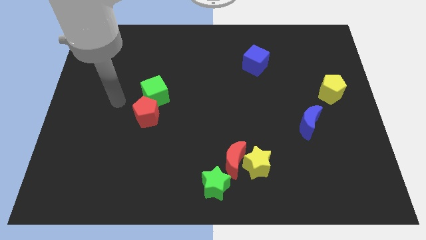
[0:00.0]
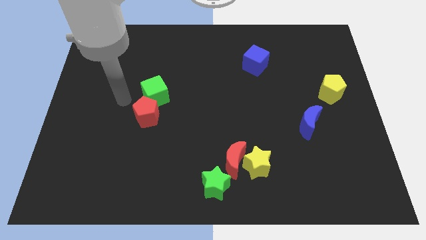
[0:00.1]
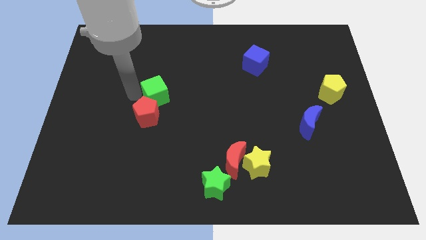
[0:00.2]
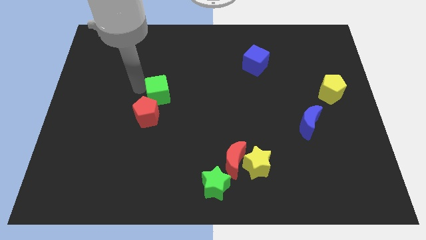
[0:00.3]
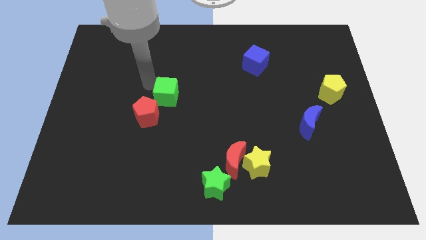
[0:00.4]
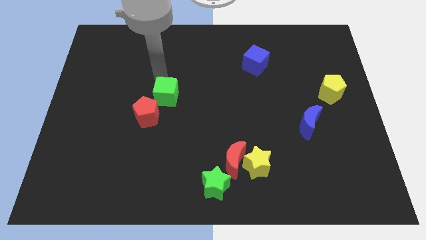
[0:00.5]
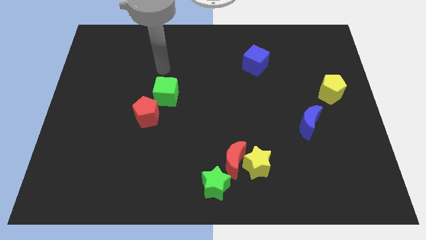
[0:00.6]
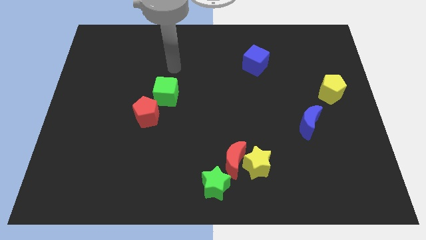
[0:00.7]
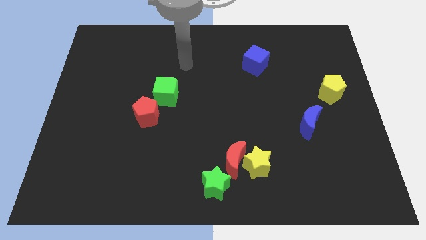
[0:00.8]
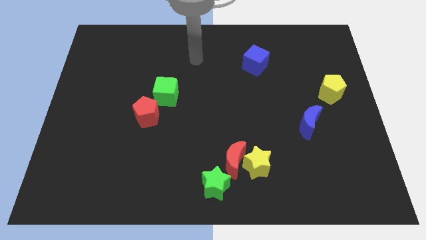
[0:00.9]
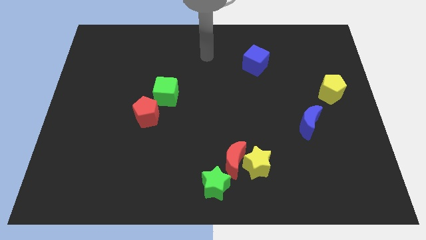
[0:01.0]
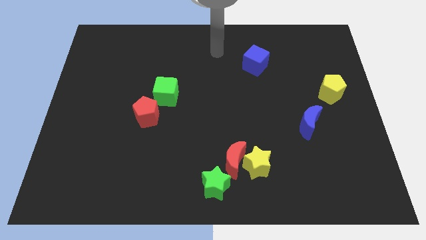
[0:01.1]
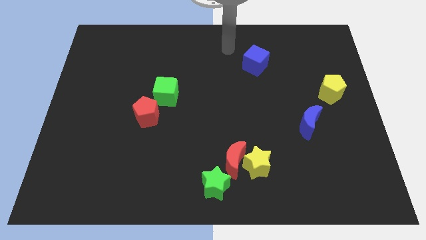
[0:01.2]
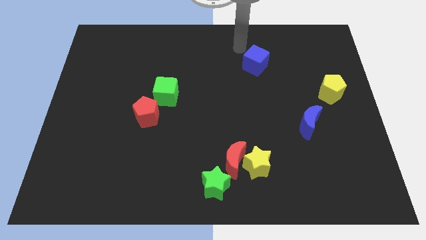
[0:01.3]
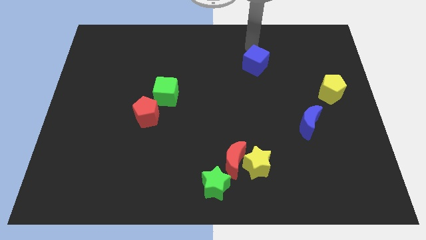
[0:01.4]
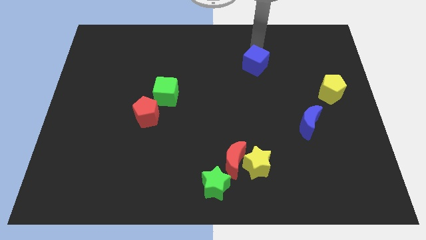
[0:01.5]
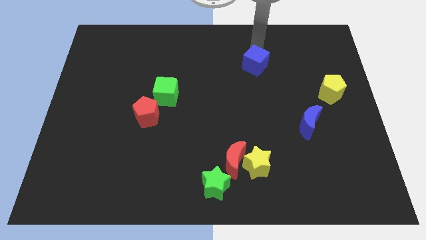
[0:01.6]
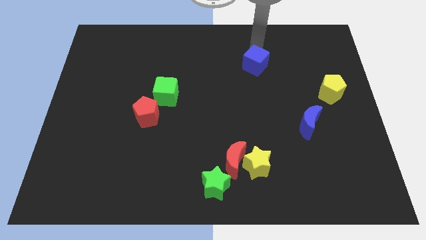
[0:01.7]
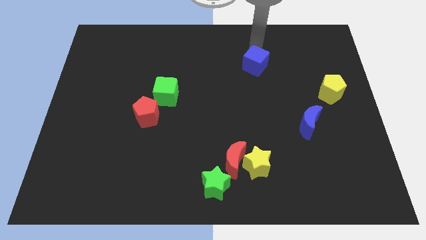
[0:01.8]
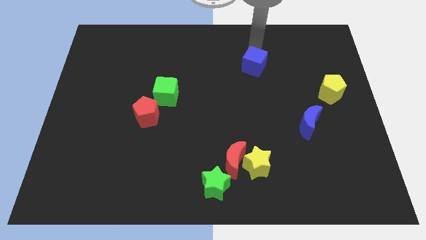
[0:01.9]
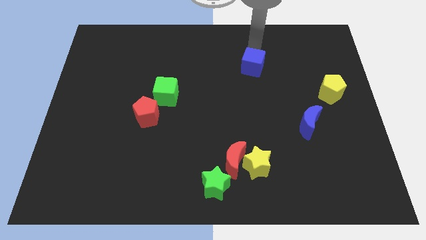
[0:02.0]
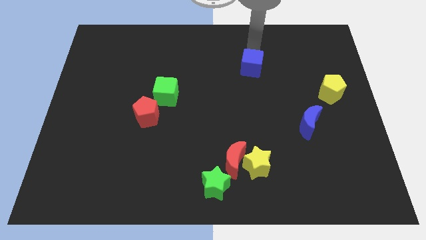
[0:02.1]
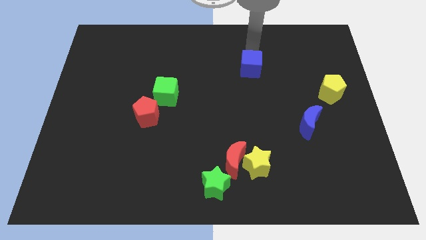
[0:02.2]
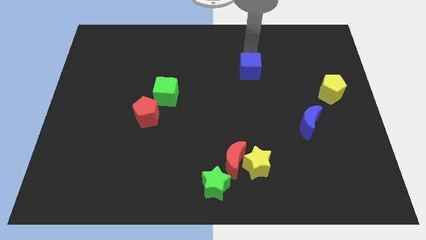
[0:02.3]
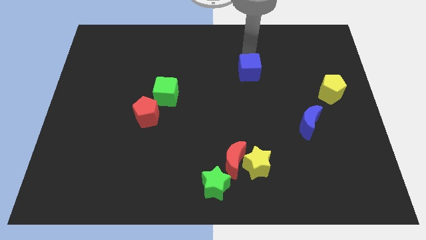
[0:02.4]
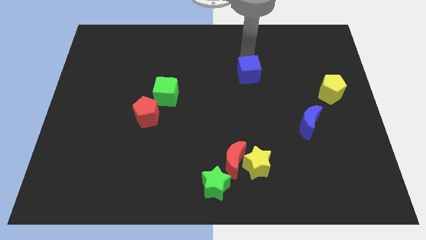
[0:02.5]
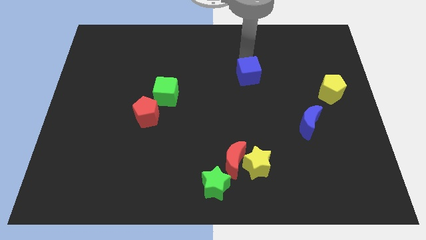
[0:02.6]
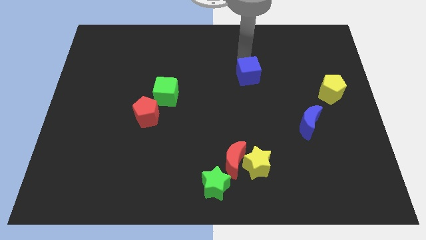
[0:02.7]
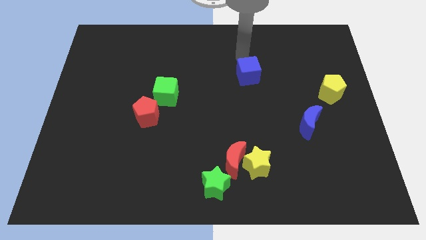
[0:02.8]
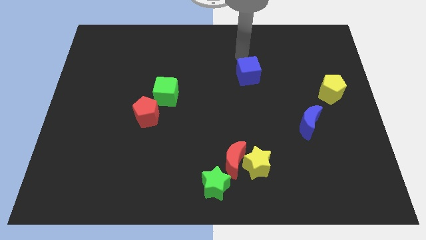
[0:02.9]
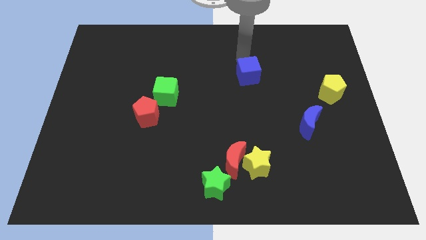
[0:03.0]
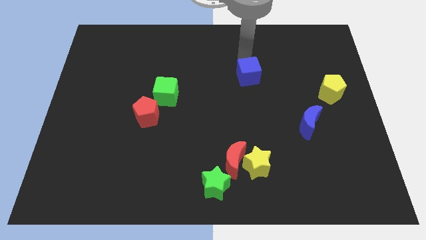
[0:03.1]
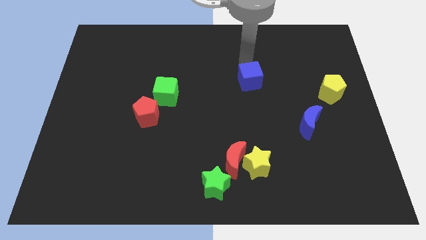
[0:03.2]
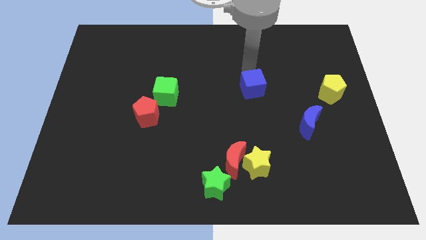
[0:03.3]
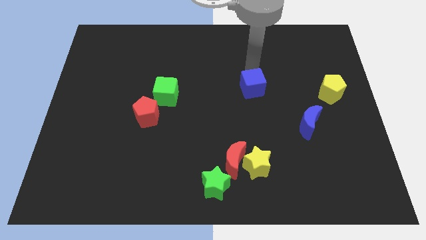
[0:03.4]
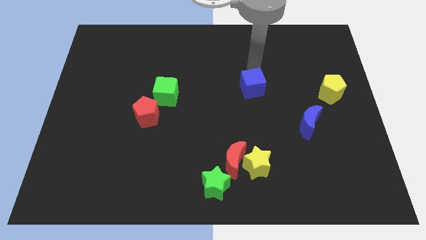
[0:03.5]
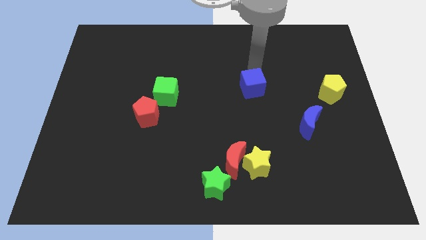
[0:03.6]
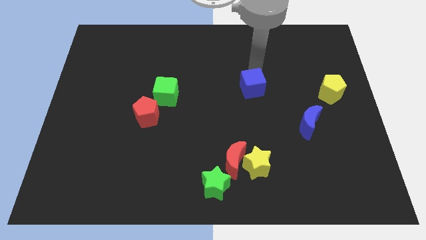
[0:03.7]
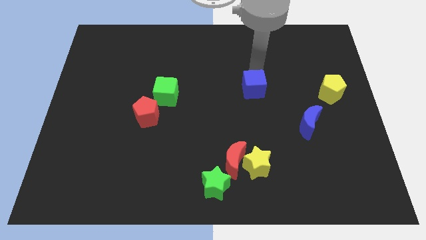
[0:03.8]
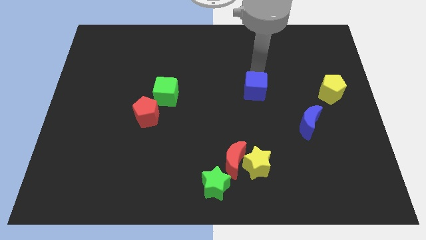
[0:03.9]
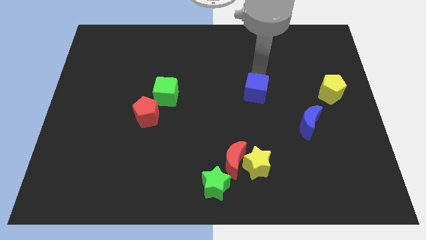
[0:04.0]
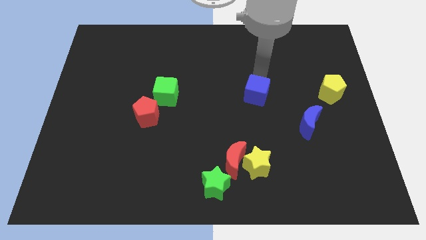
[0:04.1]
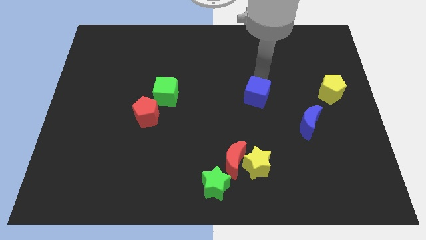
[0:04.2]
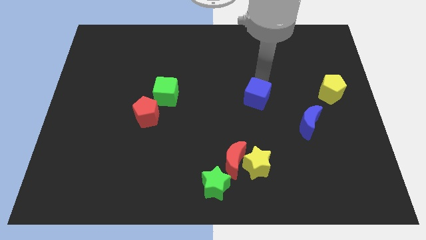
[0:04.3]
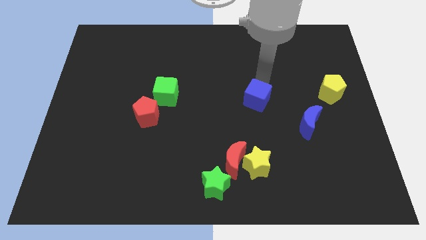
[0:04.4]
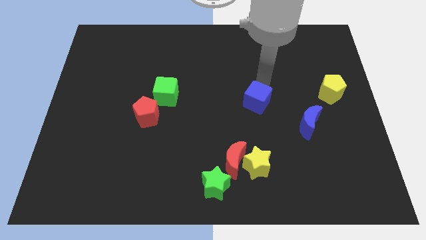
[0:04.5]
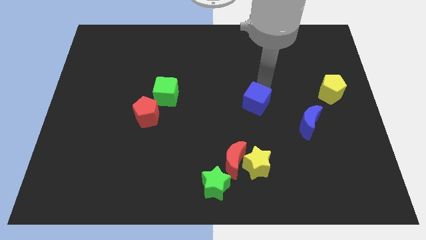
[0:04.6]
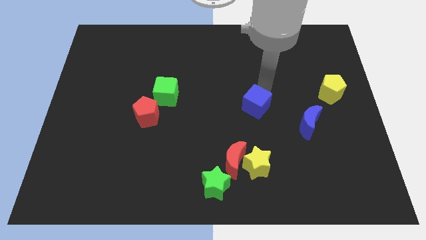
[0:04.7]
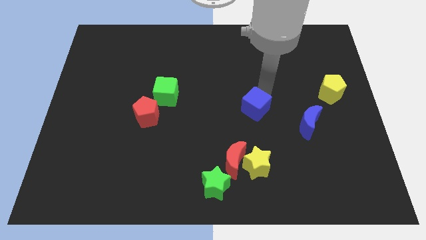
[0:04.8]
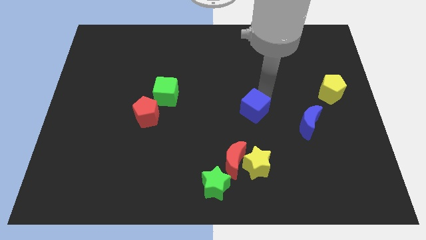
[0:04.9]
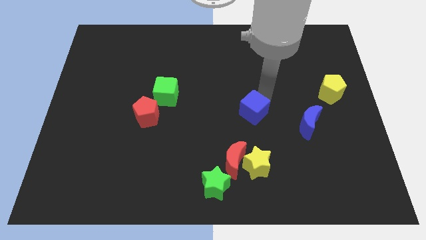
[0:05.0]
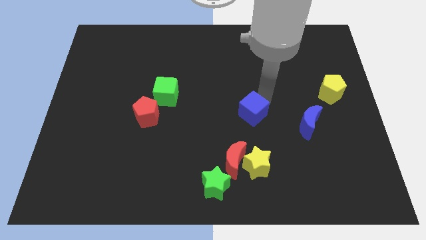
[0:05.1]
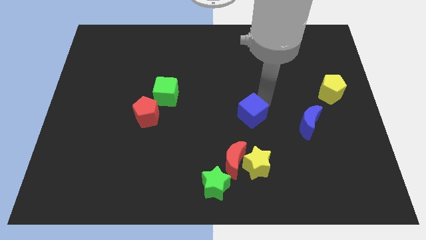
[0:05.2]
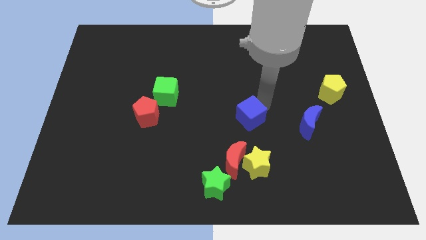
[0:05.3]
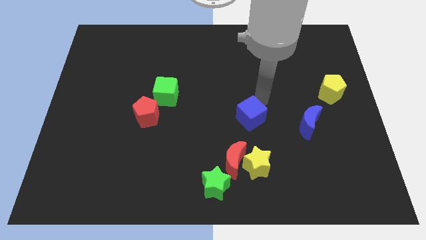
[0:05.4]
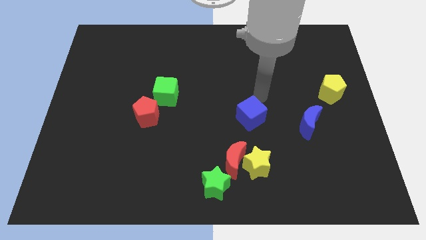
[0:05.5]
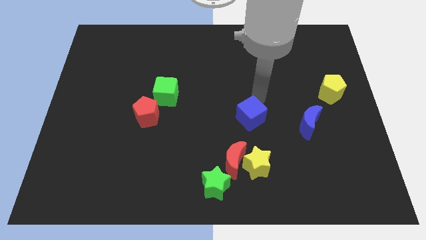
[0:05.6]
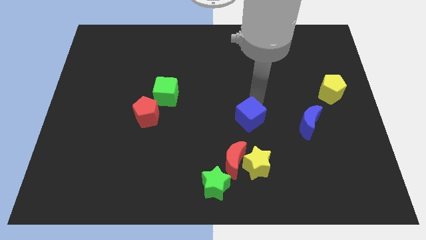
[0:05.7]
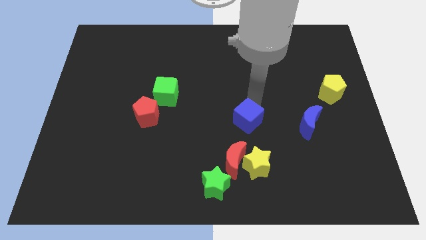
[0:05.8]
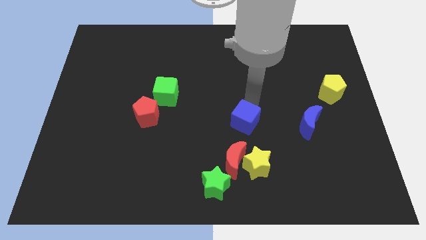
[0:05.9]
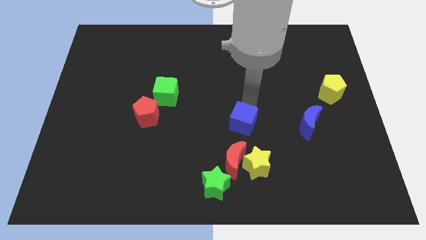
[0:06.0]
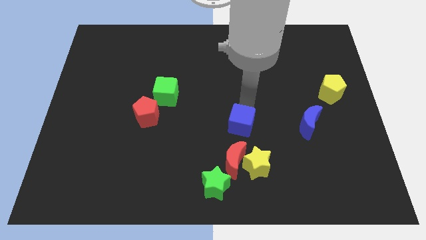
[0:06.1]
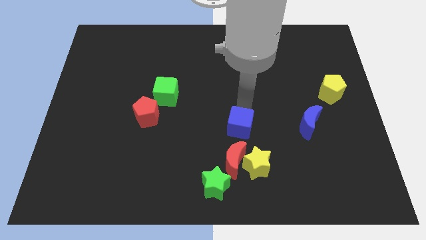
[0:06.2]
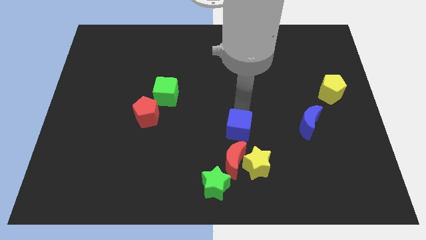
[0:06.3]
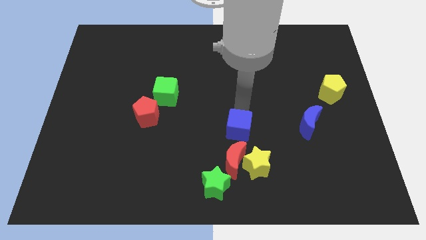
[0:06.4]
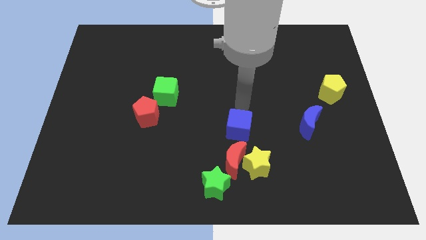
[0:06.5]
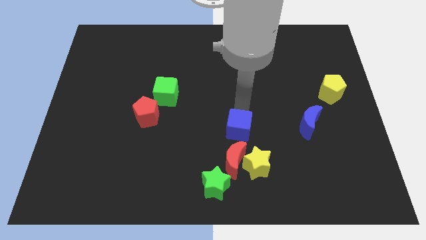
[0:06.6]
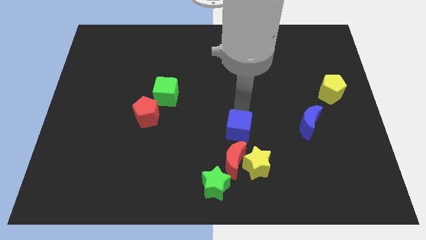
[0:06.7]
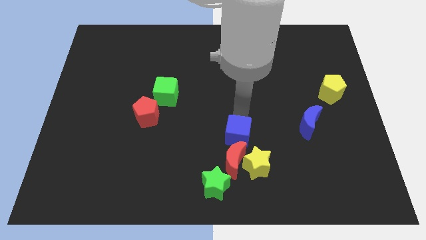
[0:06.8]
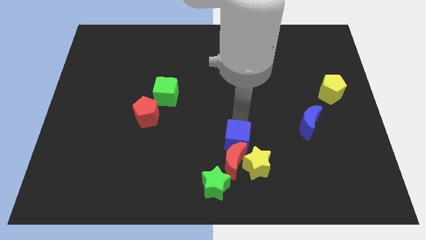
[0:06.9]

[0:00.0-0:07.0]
push the blue cube close to the red moon

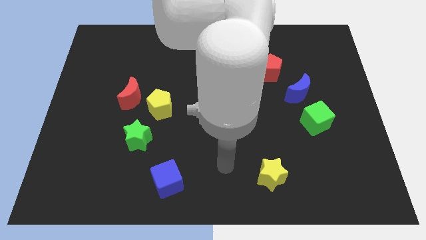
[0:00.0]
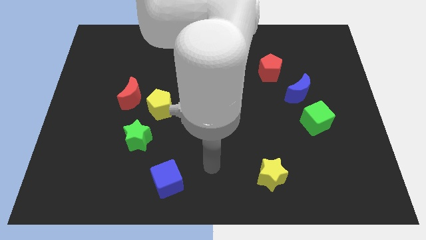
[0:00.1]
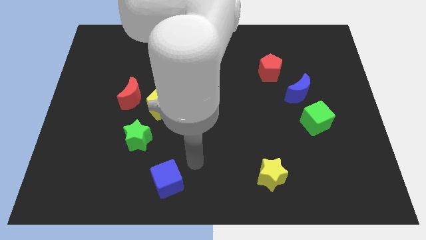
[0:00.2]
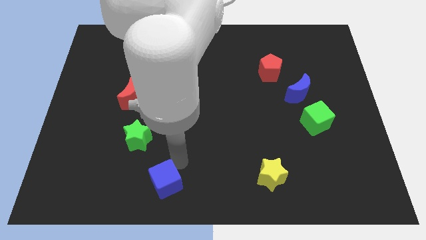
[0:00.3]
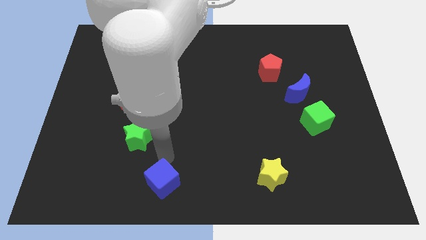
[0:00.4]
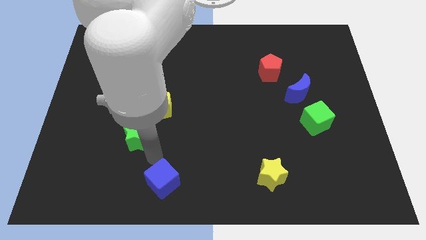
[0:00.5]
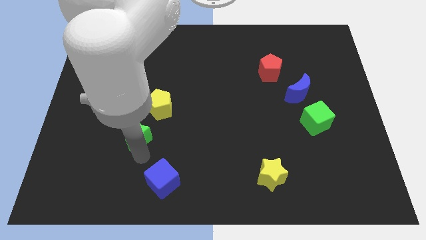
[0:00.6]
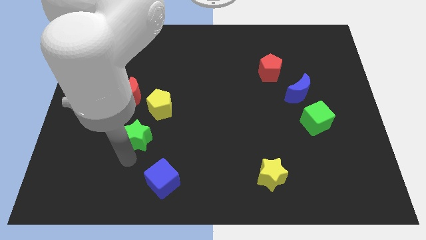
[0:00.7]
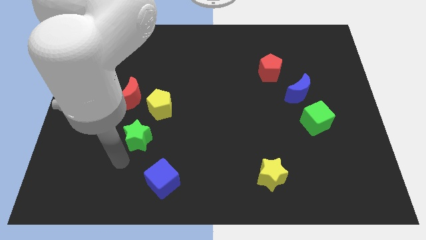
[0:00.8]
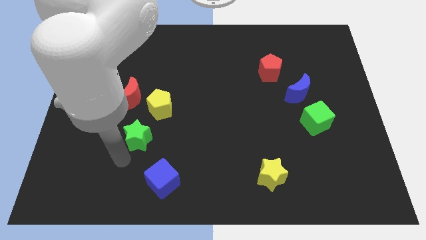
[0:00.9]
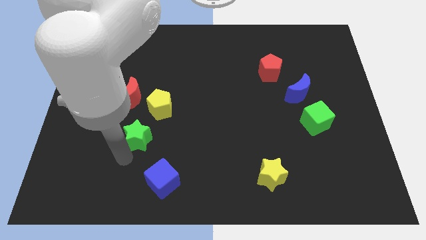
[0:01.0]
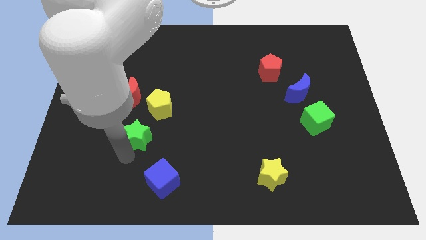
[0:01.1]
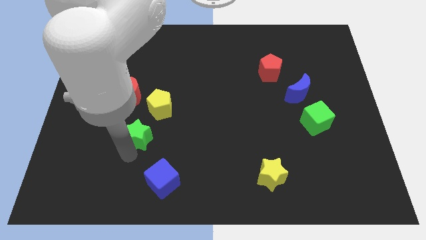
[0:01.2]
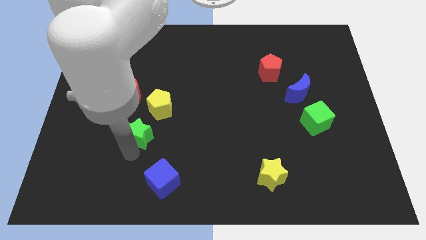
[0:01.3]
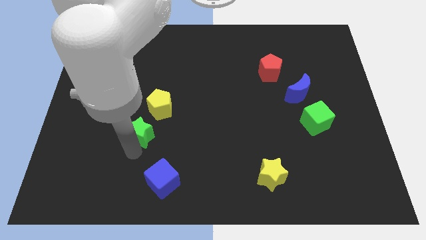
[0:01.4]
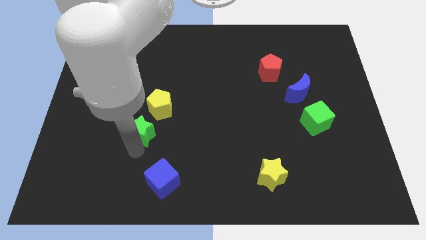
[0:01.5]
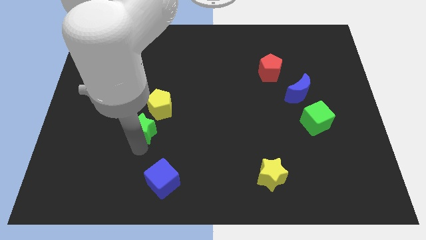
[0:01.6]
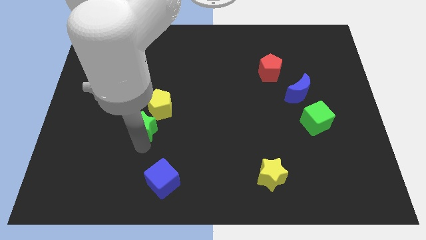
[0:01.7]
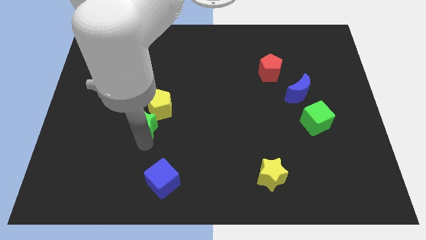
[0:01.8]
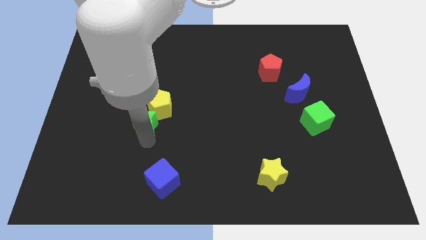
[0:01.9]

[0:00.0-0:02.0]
move the green star next to the yellow pentagon
